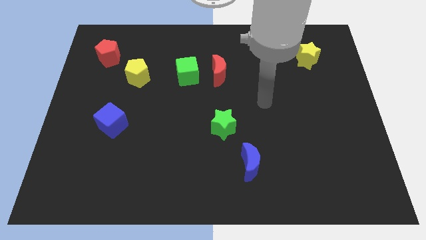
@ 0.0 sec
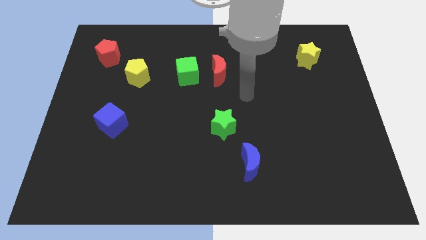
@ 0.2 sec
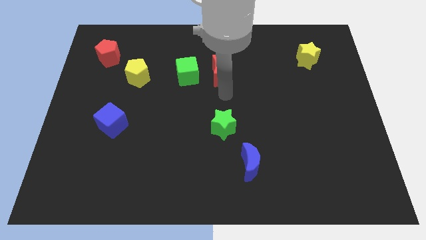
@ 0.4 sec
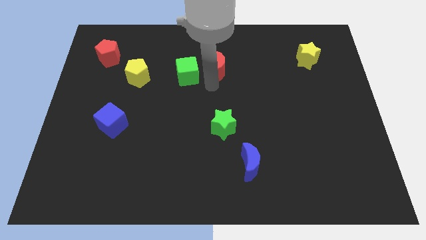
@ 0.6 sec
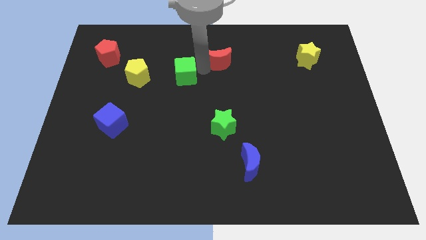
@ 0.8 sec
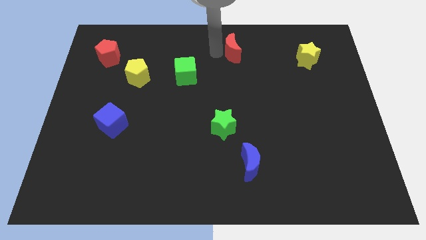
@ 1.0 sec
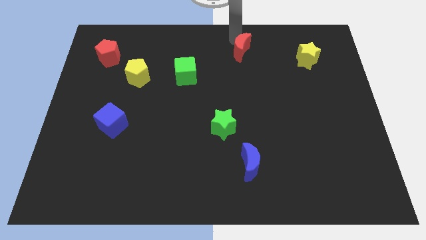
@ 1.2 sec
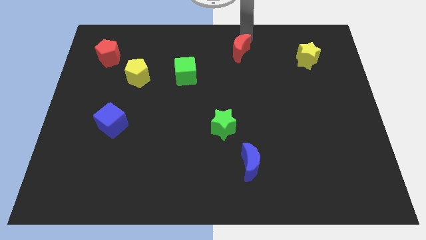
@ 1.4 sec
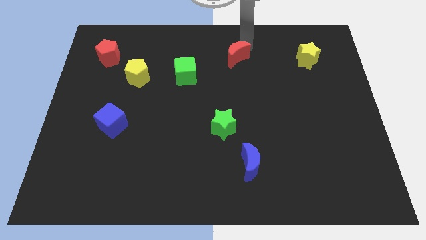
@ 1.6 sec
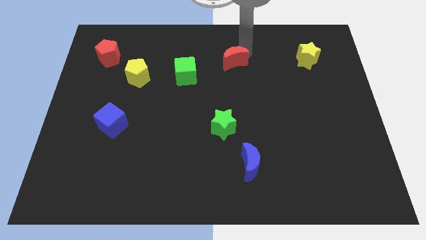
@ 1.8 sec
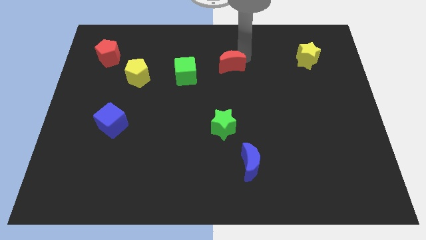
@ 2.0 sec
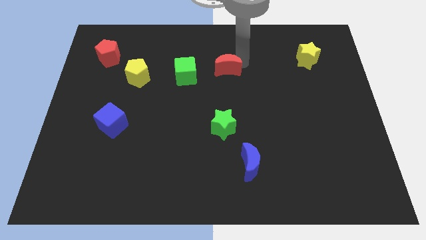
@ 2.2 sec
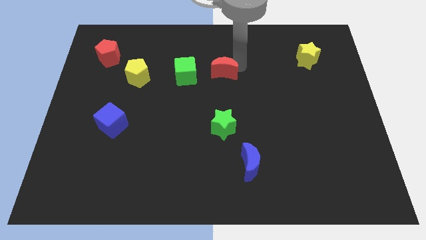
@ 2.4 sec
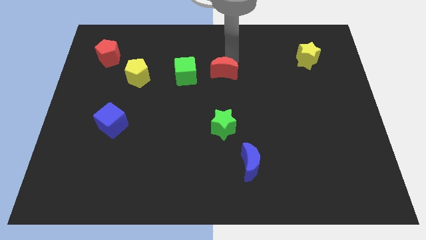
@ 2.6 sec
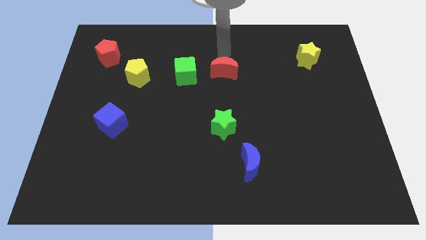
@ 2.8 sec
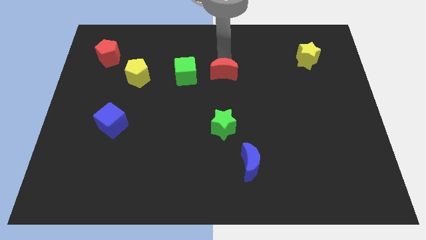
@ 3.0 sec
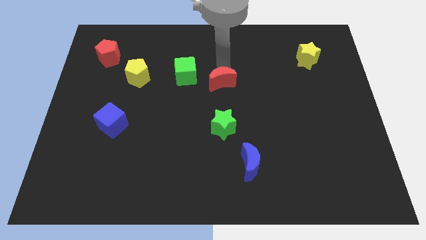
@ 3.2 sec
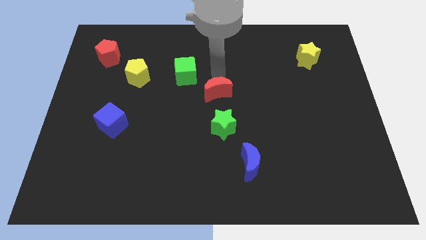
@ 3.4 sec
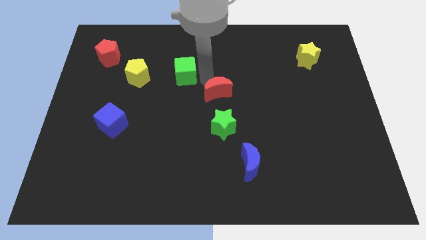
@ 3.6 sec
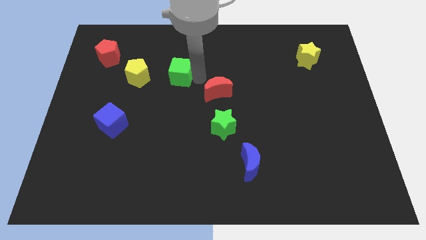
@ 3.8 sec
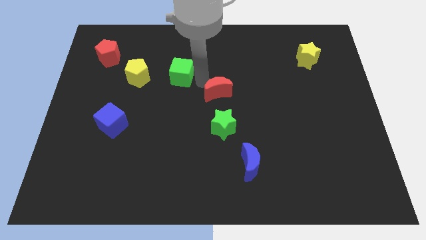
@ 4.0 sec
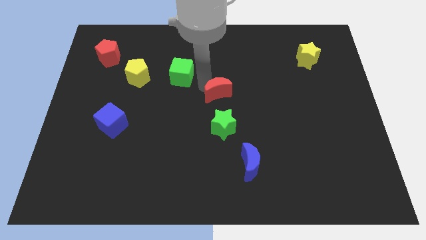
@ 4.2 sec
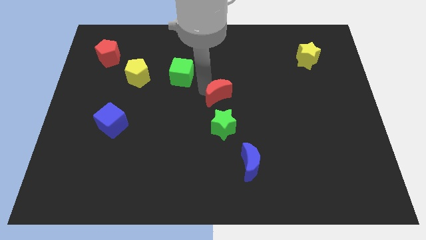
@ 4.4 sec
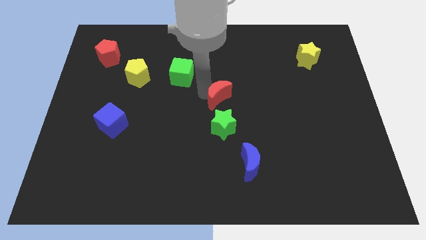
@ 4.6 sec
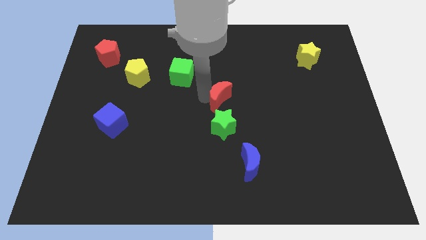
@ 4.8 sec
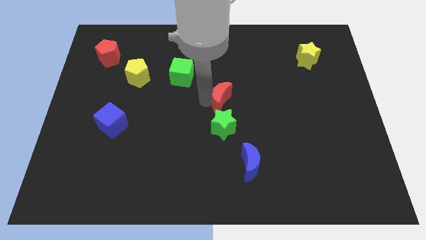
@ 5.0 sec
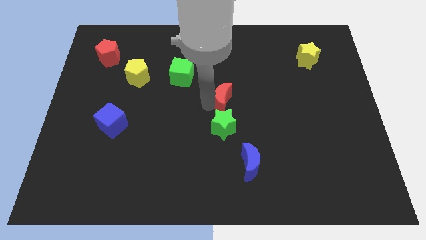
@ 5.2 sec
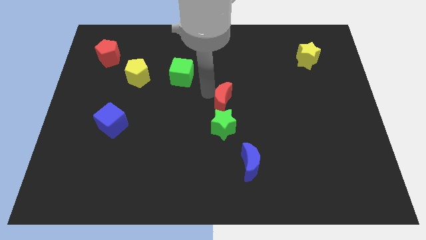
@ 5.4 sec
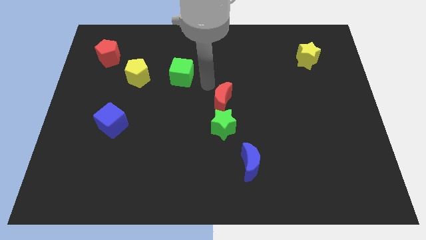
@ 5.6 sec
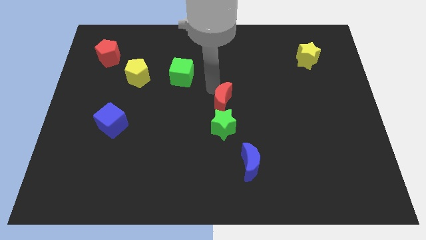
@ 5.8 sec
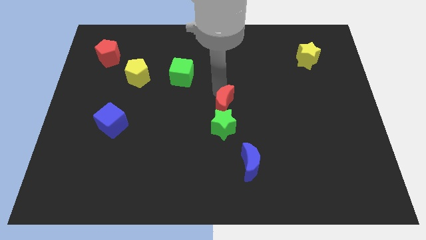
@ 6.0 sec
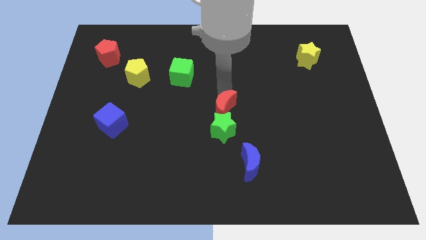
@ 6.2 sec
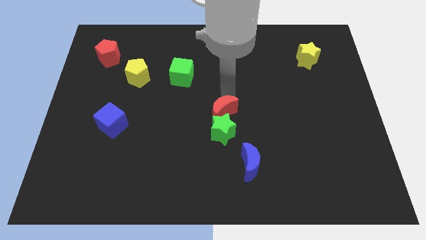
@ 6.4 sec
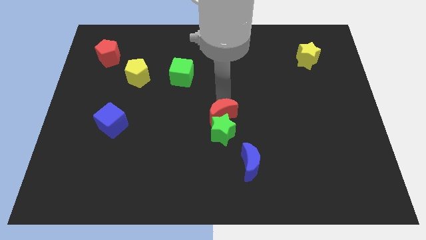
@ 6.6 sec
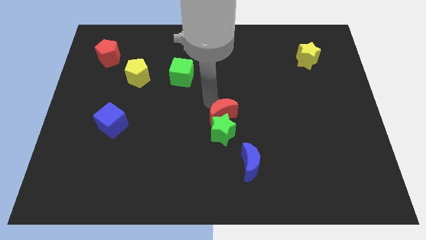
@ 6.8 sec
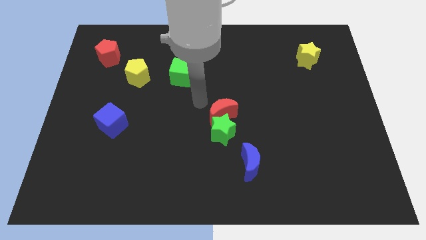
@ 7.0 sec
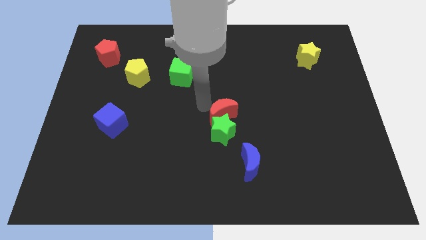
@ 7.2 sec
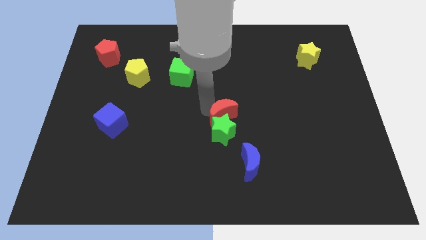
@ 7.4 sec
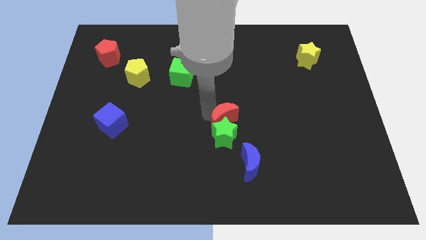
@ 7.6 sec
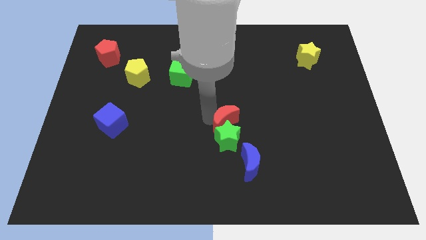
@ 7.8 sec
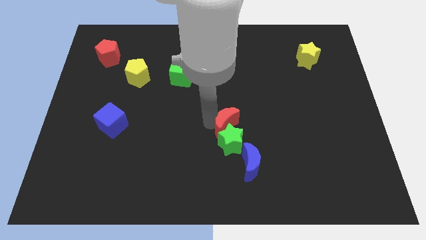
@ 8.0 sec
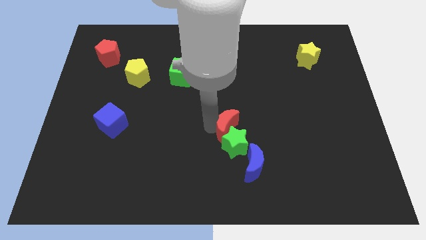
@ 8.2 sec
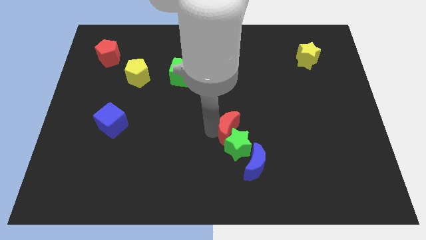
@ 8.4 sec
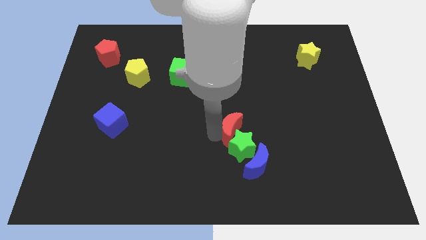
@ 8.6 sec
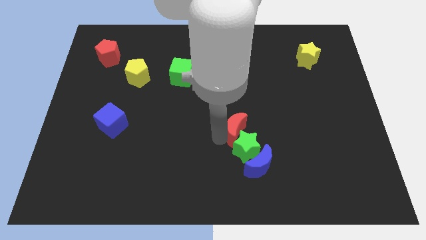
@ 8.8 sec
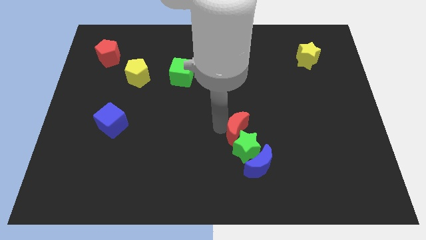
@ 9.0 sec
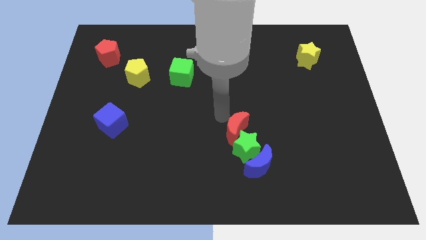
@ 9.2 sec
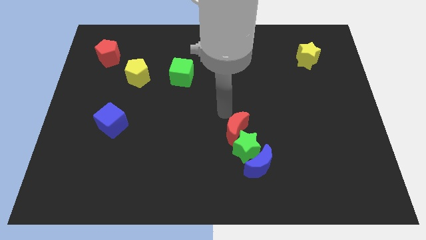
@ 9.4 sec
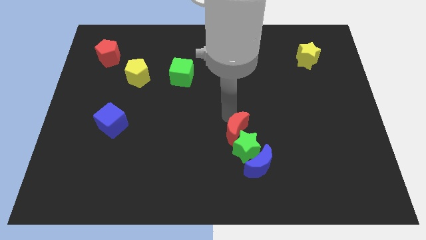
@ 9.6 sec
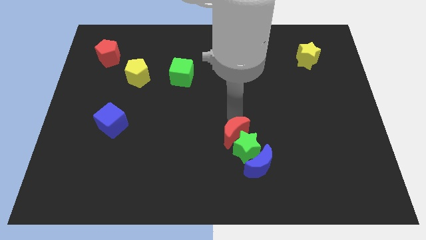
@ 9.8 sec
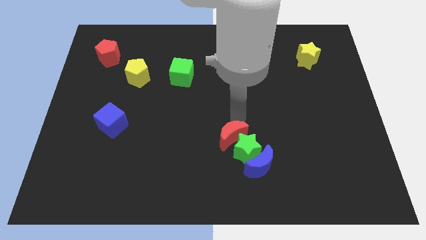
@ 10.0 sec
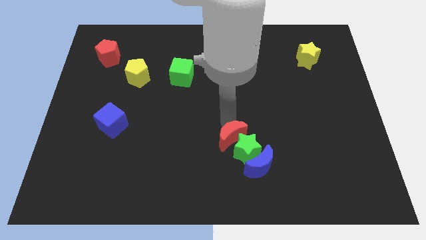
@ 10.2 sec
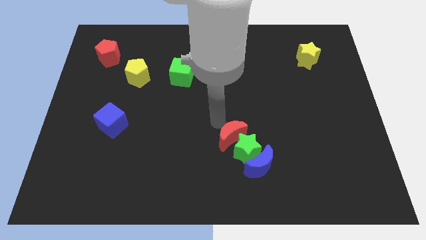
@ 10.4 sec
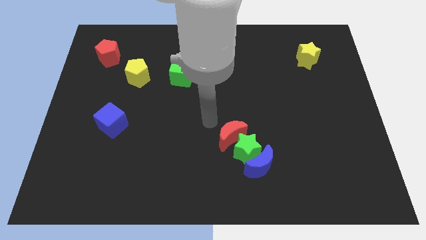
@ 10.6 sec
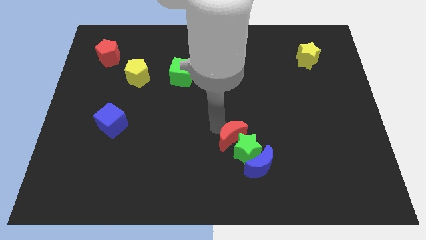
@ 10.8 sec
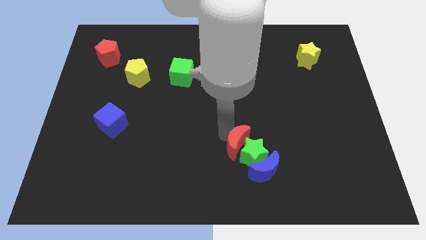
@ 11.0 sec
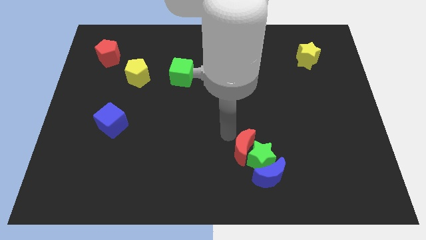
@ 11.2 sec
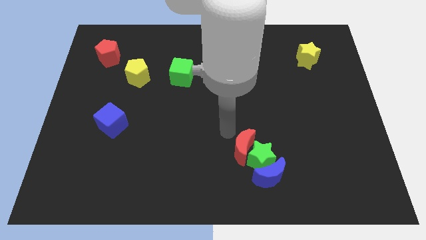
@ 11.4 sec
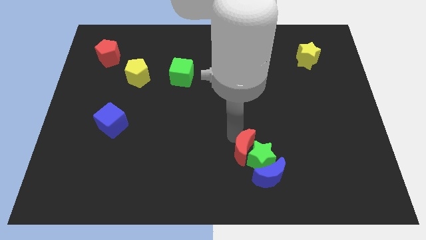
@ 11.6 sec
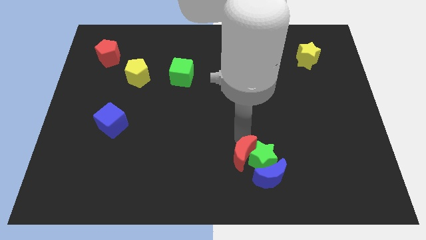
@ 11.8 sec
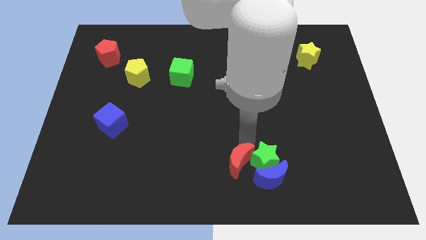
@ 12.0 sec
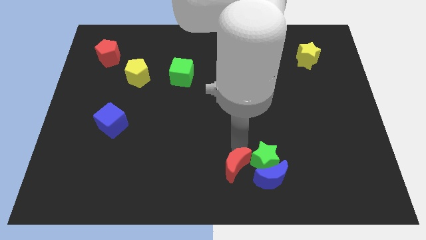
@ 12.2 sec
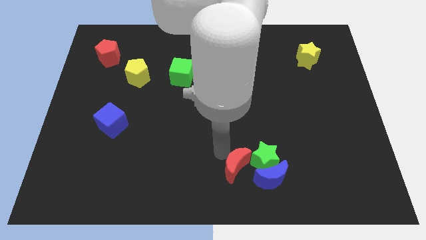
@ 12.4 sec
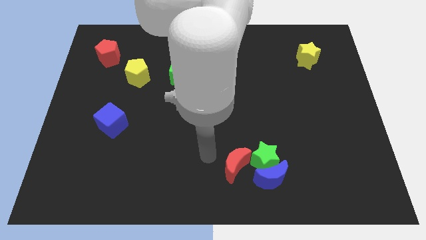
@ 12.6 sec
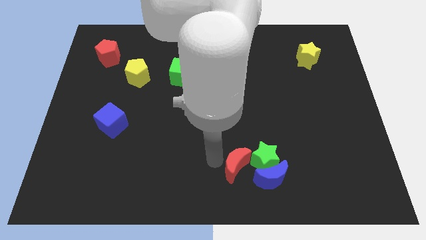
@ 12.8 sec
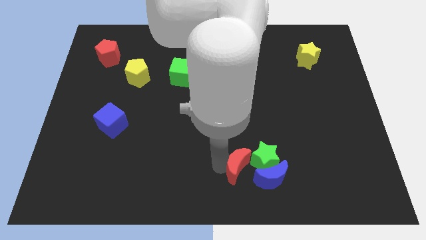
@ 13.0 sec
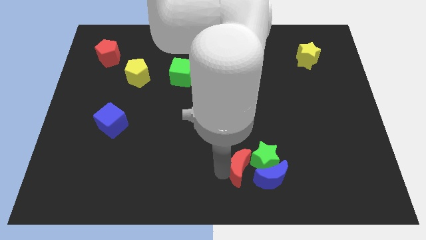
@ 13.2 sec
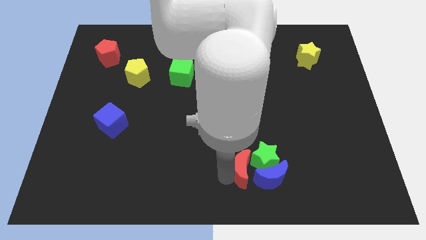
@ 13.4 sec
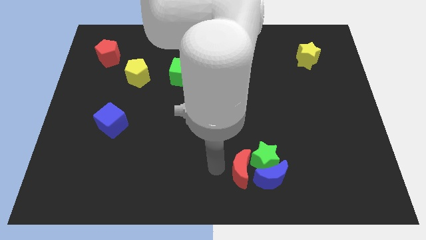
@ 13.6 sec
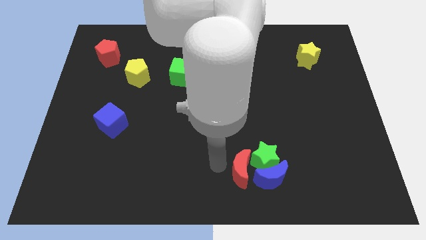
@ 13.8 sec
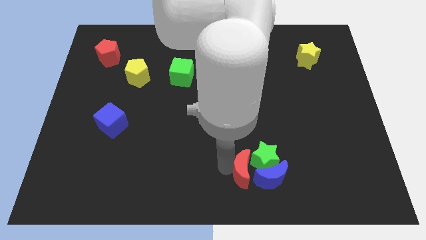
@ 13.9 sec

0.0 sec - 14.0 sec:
push the red moon next to the blue moon
